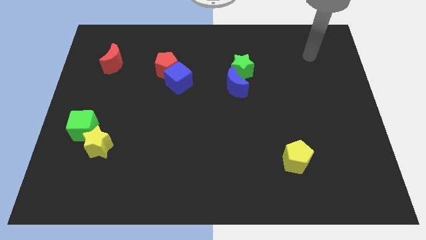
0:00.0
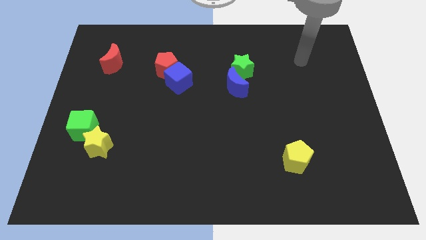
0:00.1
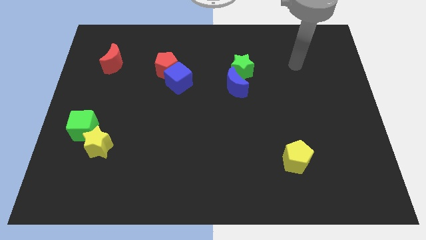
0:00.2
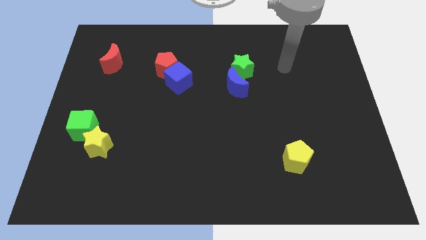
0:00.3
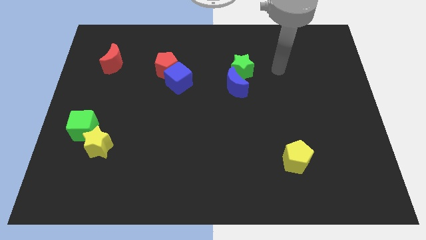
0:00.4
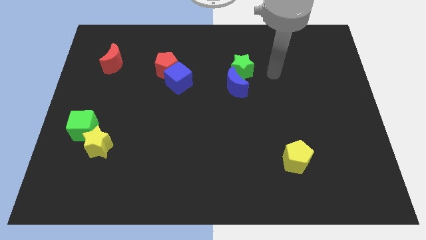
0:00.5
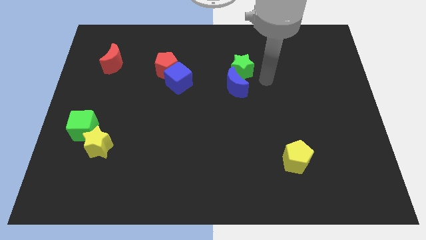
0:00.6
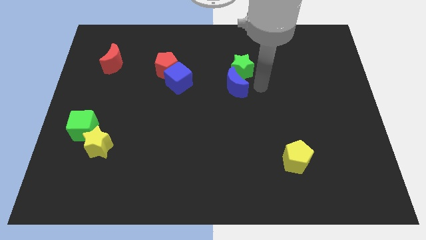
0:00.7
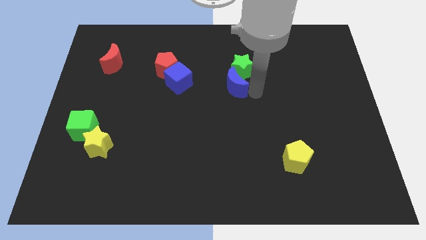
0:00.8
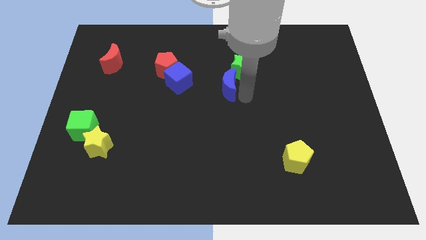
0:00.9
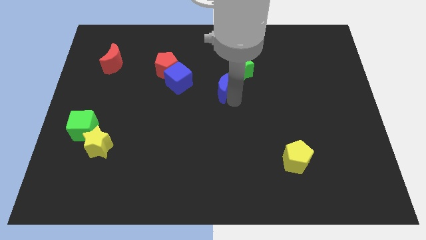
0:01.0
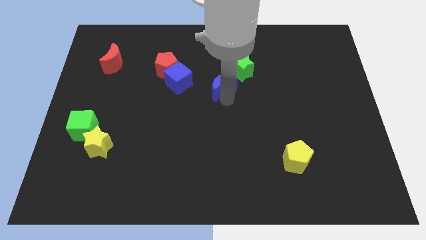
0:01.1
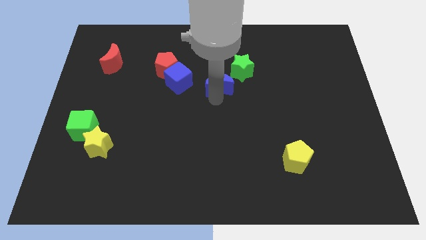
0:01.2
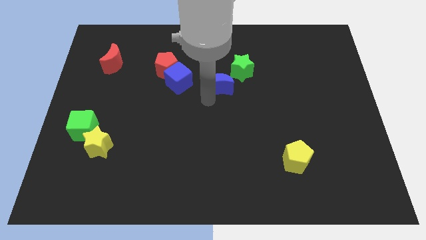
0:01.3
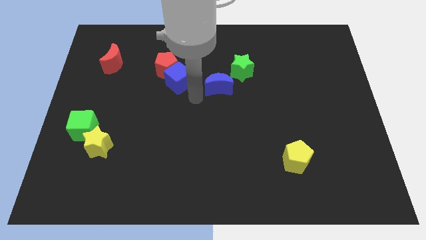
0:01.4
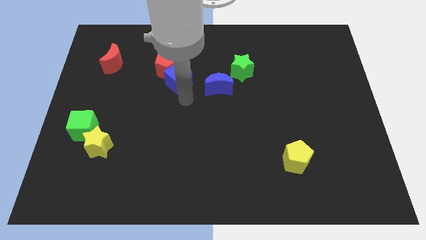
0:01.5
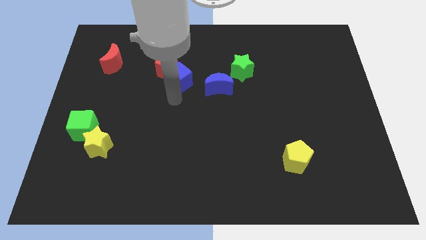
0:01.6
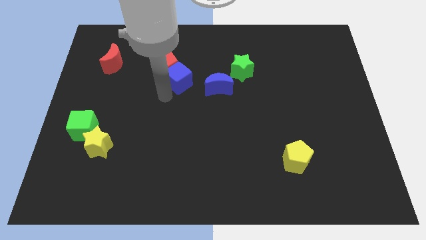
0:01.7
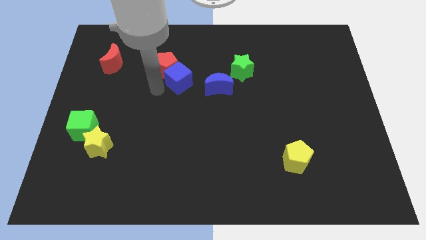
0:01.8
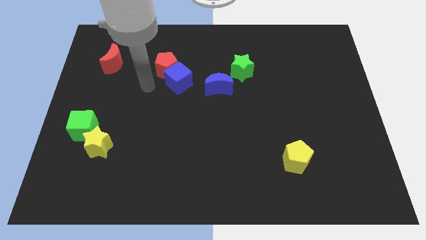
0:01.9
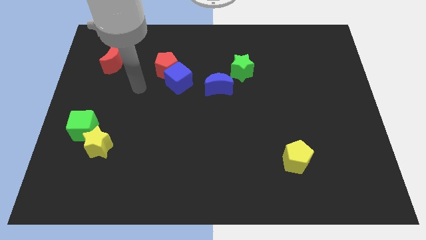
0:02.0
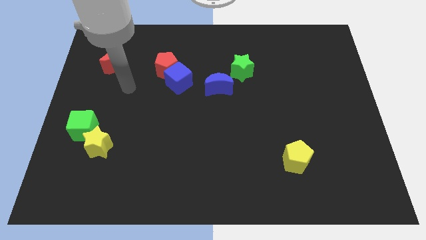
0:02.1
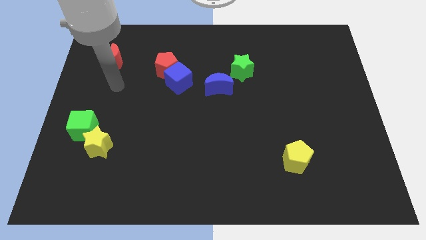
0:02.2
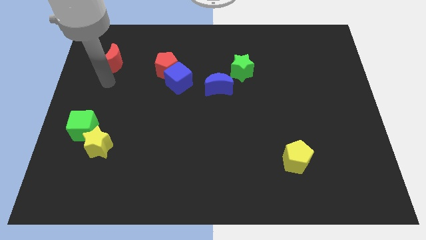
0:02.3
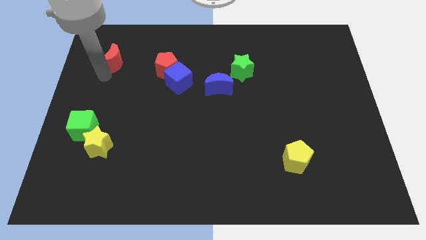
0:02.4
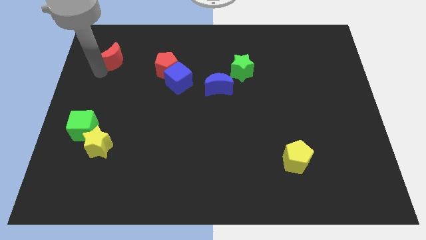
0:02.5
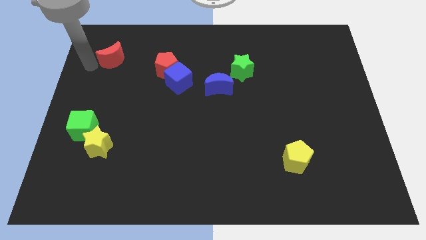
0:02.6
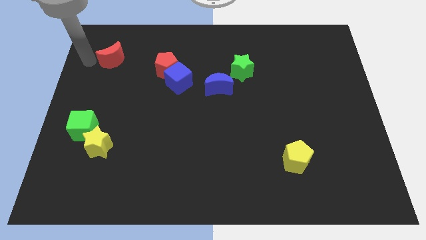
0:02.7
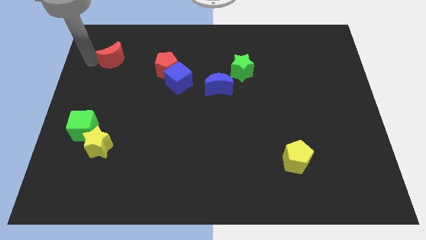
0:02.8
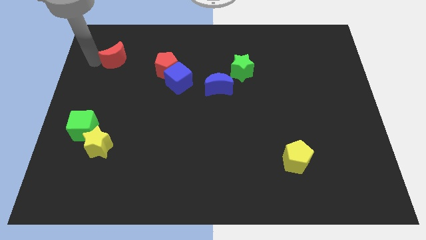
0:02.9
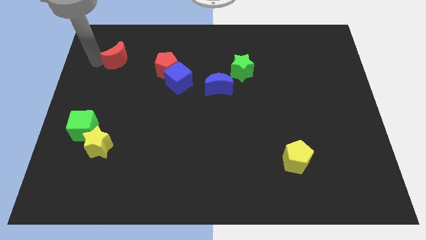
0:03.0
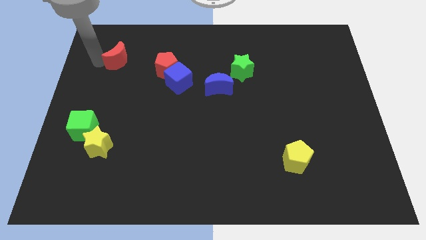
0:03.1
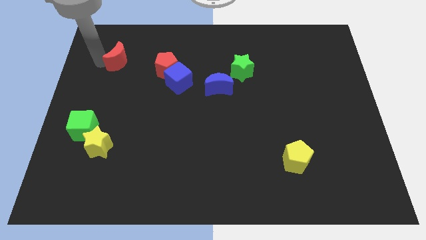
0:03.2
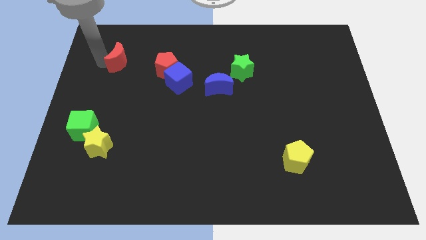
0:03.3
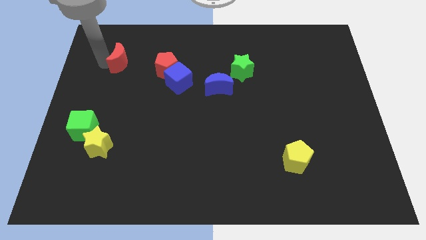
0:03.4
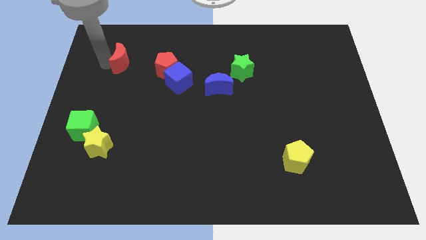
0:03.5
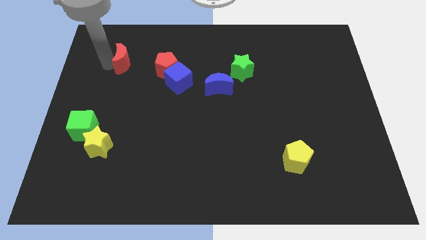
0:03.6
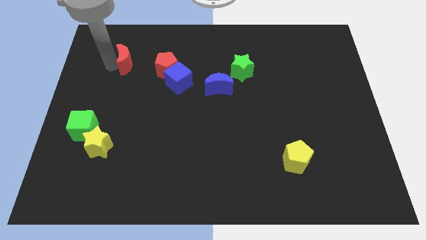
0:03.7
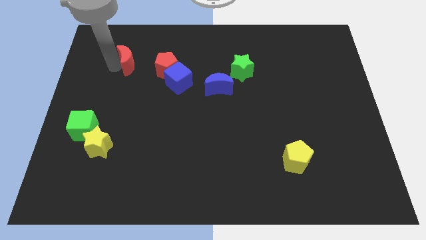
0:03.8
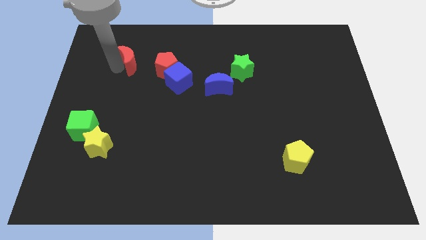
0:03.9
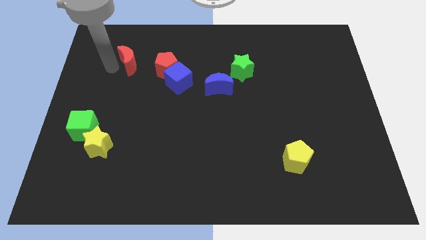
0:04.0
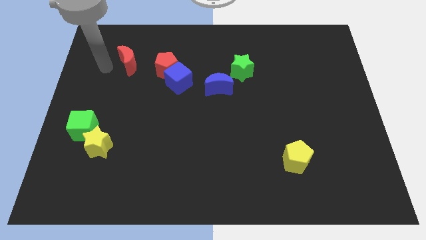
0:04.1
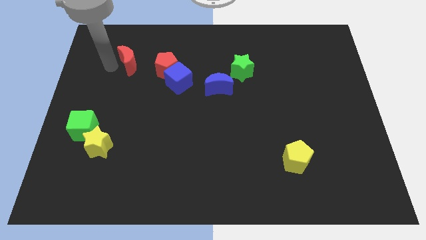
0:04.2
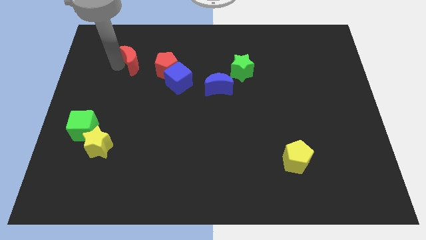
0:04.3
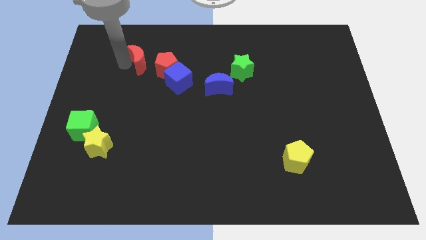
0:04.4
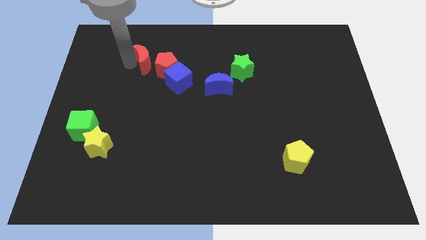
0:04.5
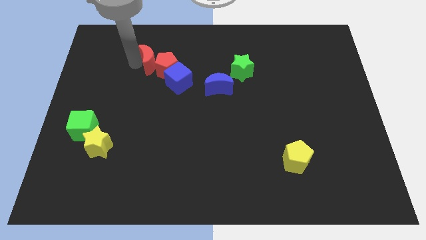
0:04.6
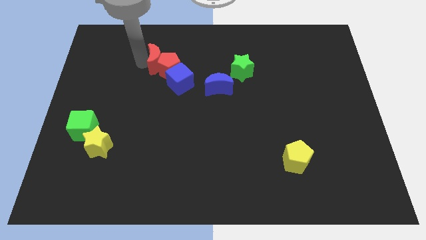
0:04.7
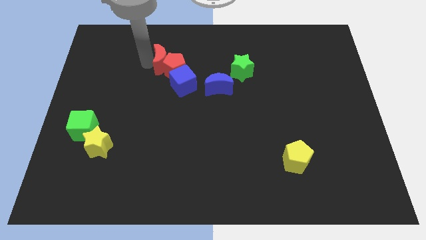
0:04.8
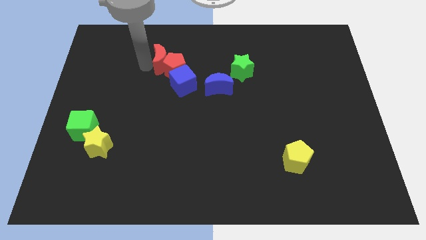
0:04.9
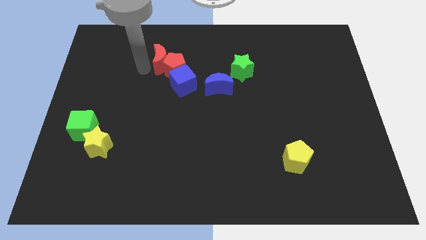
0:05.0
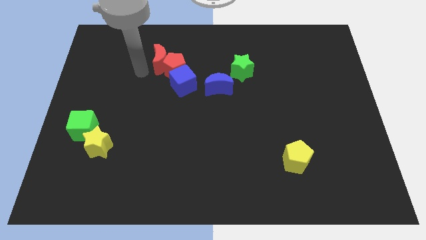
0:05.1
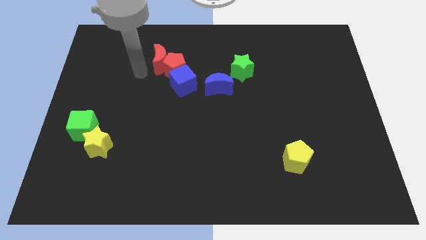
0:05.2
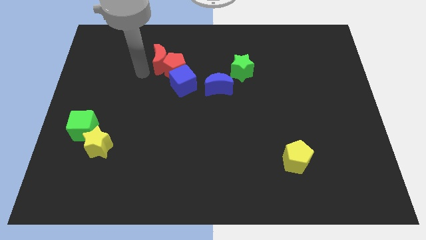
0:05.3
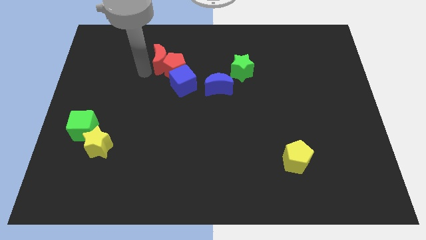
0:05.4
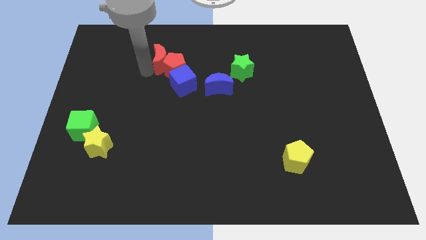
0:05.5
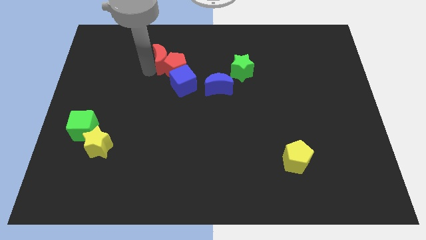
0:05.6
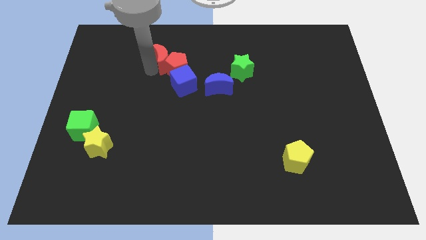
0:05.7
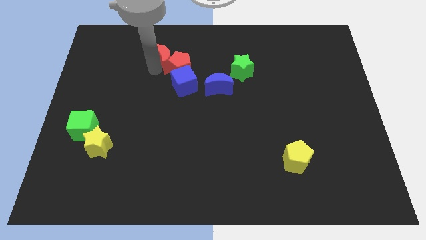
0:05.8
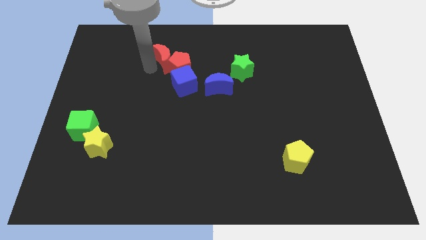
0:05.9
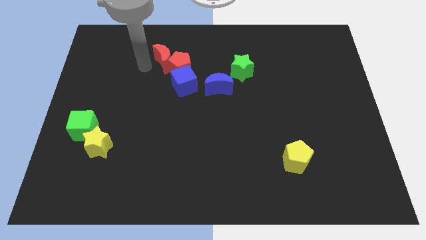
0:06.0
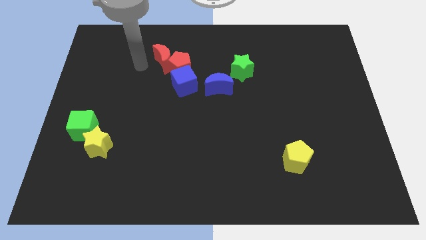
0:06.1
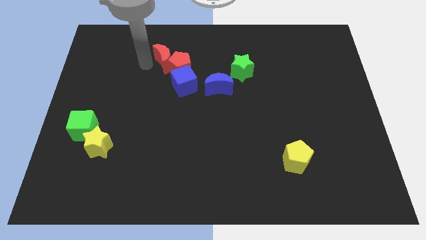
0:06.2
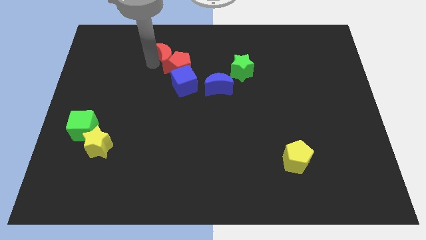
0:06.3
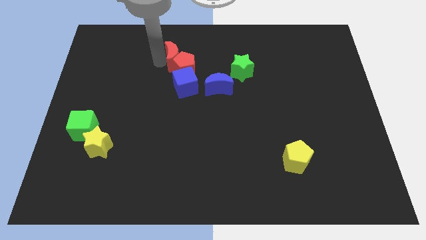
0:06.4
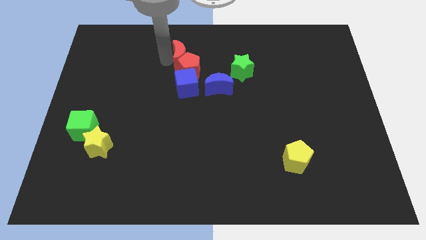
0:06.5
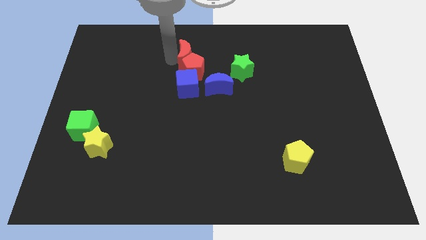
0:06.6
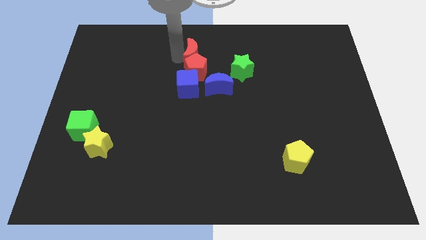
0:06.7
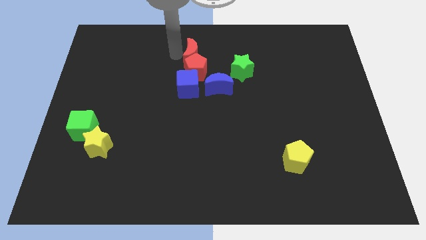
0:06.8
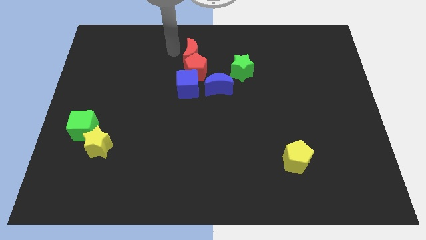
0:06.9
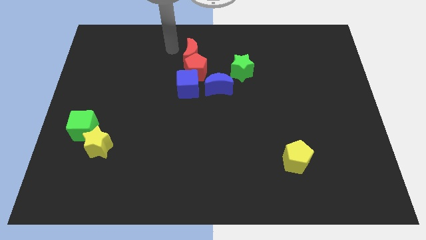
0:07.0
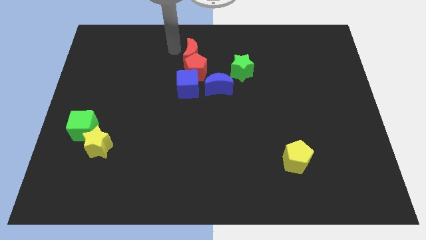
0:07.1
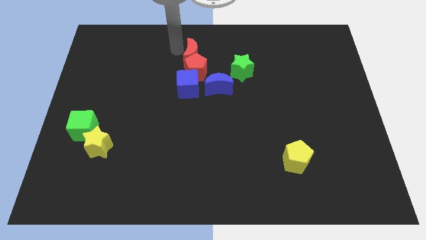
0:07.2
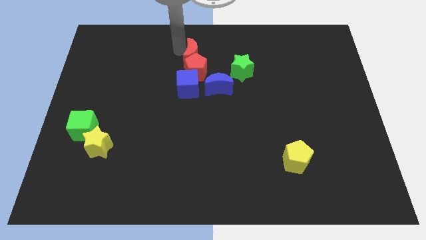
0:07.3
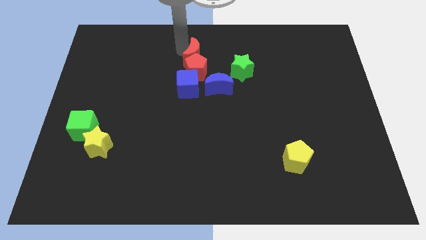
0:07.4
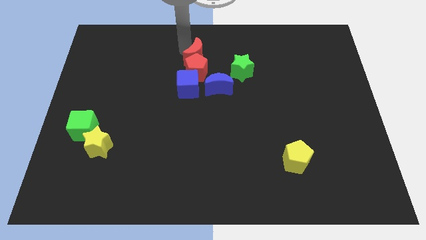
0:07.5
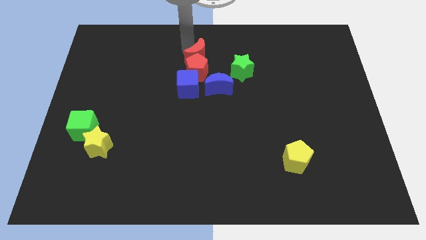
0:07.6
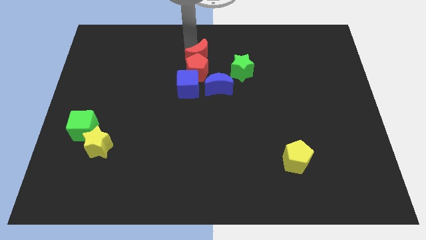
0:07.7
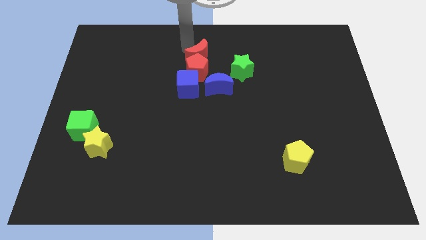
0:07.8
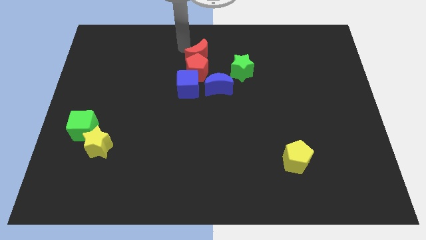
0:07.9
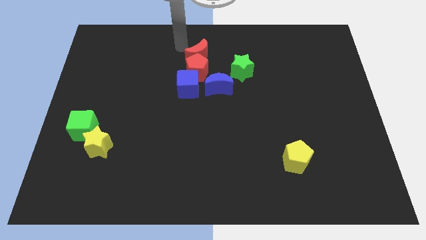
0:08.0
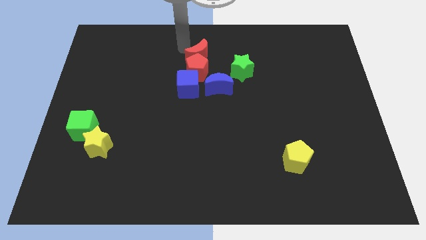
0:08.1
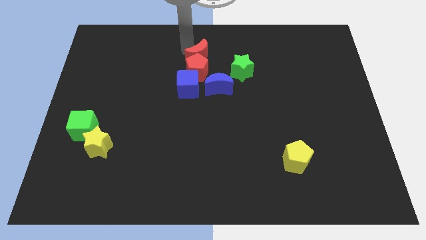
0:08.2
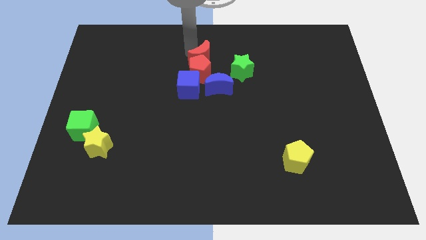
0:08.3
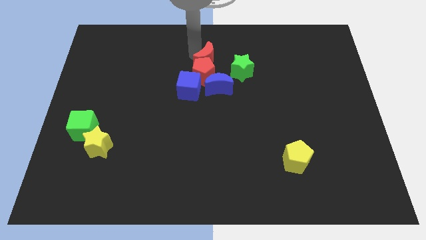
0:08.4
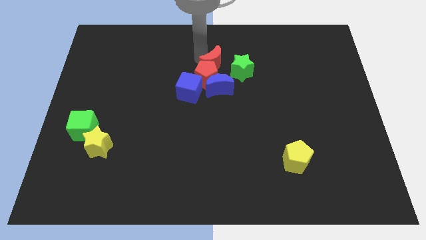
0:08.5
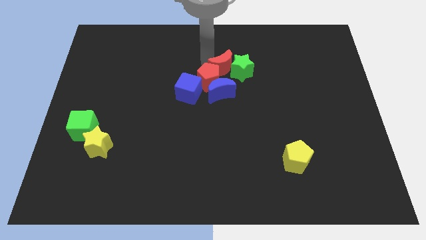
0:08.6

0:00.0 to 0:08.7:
push the red moon to the green star
